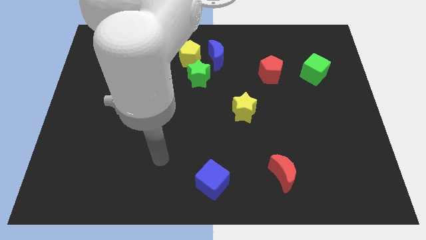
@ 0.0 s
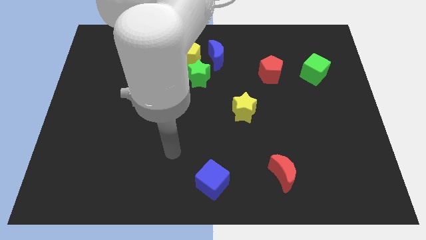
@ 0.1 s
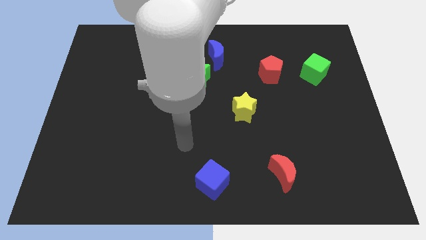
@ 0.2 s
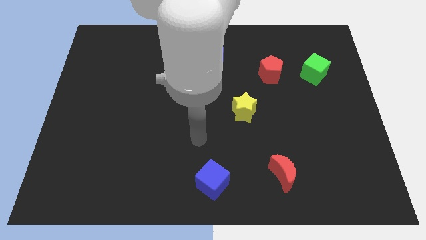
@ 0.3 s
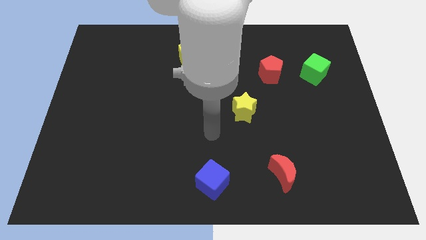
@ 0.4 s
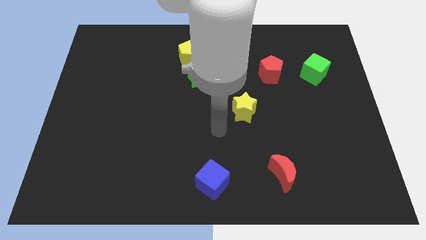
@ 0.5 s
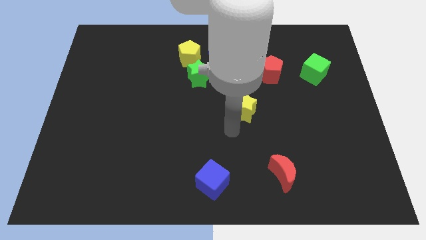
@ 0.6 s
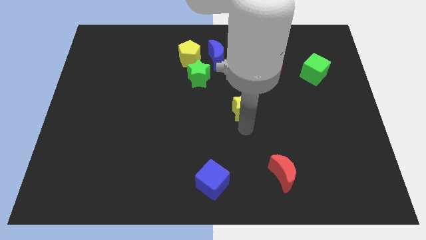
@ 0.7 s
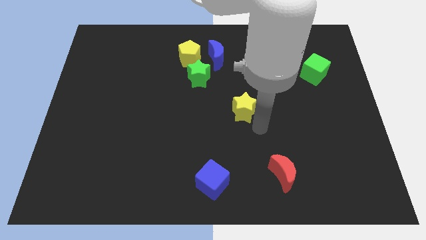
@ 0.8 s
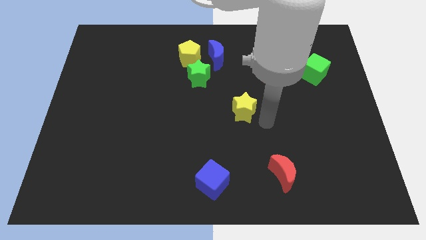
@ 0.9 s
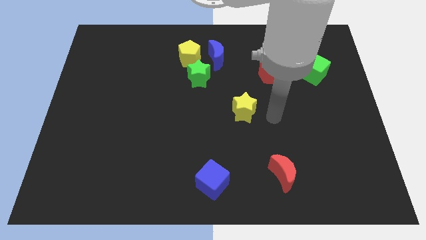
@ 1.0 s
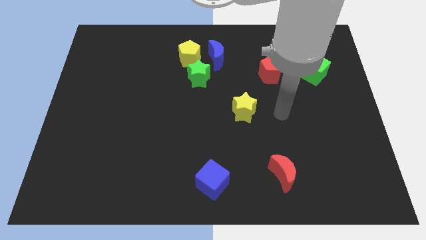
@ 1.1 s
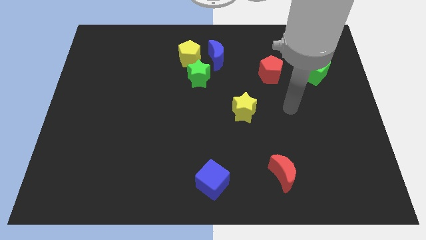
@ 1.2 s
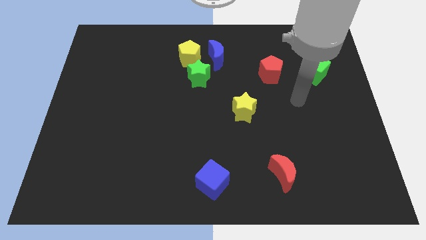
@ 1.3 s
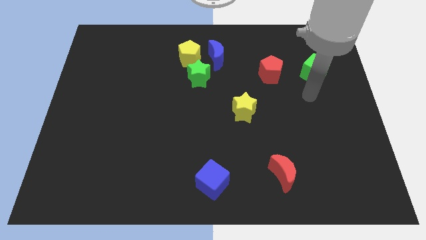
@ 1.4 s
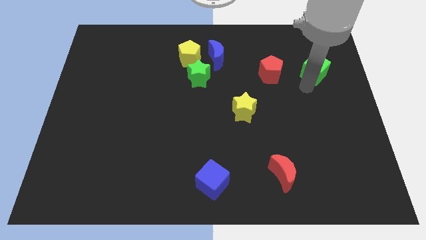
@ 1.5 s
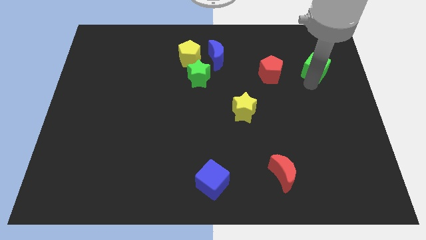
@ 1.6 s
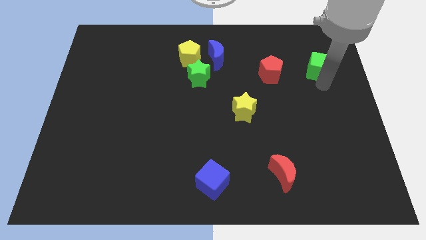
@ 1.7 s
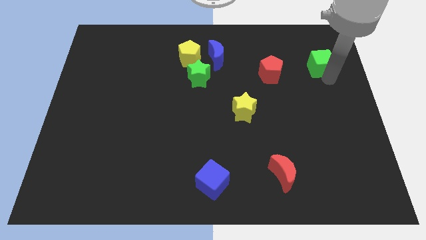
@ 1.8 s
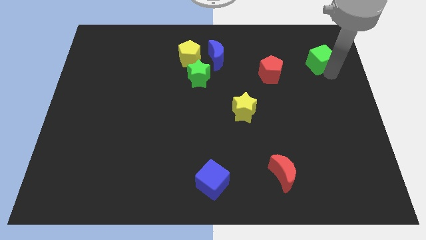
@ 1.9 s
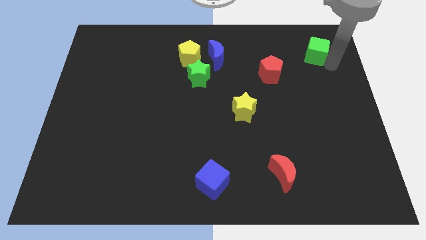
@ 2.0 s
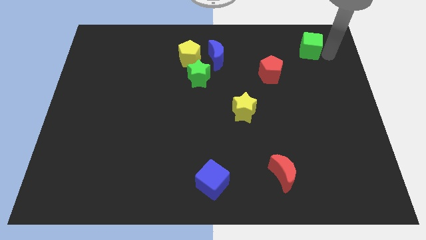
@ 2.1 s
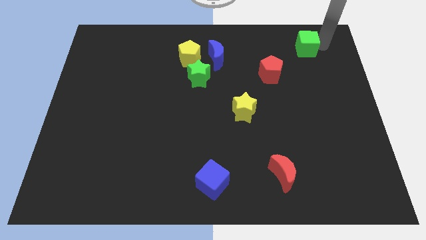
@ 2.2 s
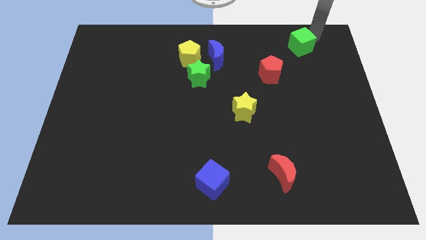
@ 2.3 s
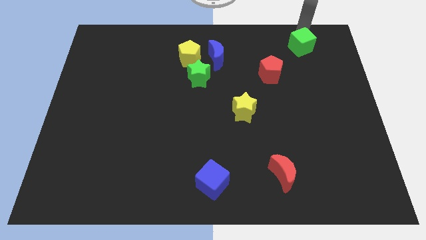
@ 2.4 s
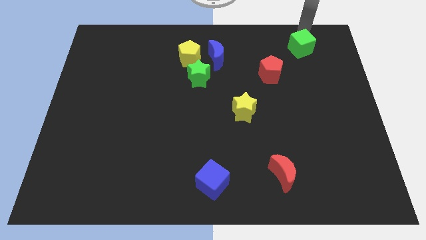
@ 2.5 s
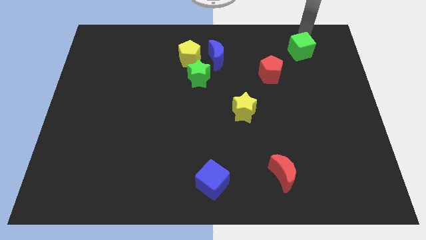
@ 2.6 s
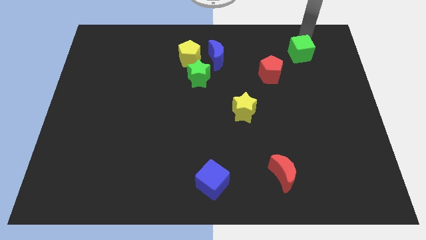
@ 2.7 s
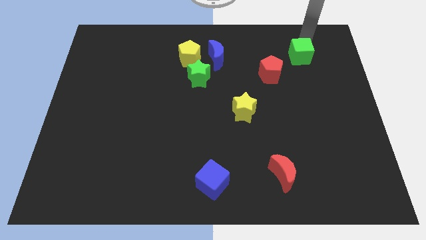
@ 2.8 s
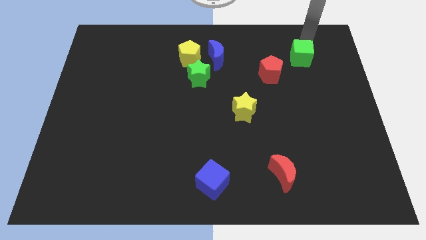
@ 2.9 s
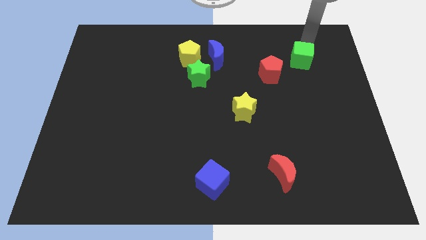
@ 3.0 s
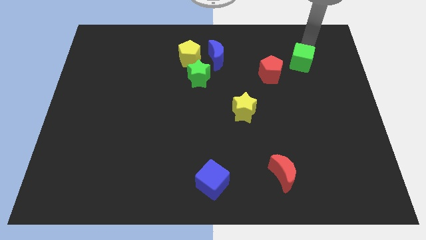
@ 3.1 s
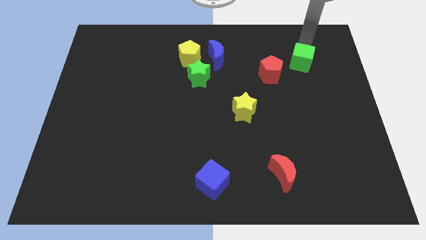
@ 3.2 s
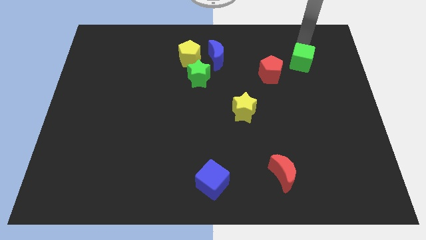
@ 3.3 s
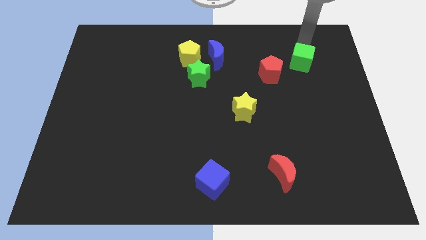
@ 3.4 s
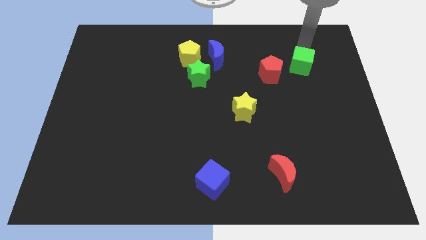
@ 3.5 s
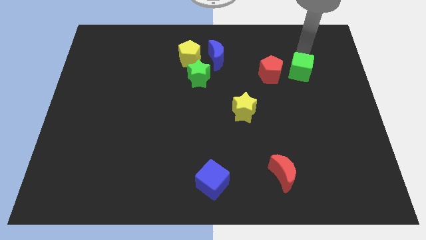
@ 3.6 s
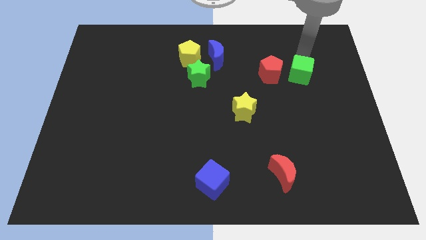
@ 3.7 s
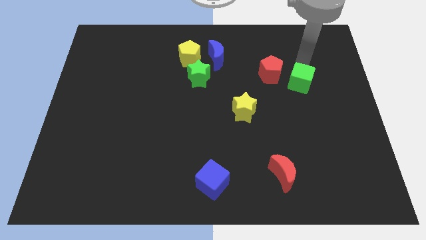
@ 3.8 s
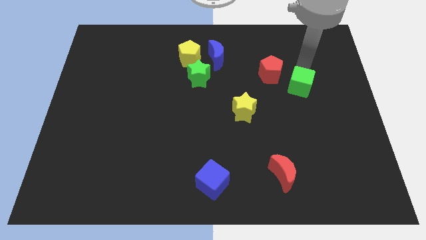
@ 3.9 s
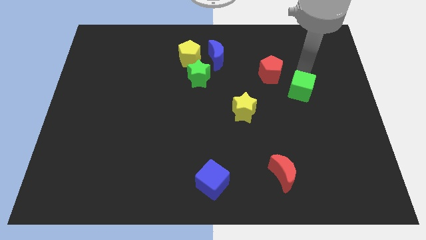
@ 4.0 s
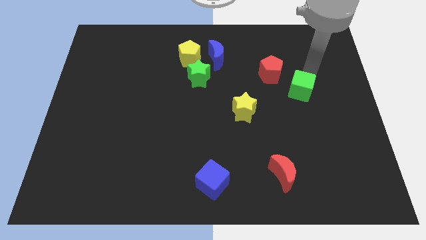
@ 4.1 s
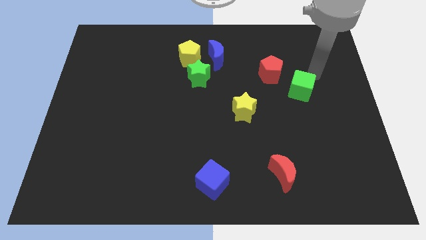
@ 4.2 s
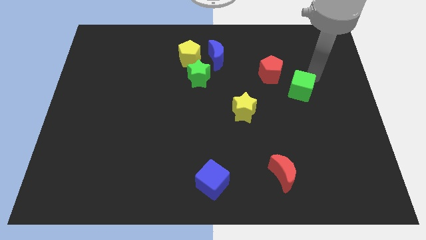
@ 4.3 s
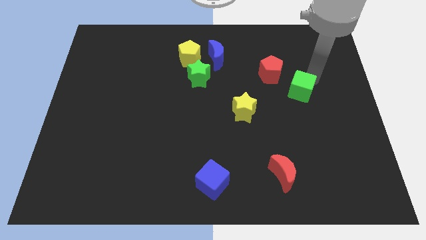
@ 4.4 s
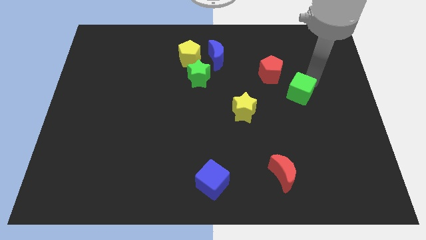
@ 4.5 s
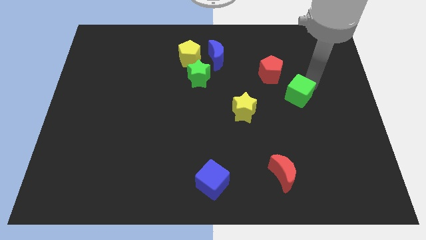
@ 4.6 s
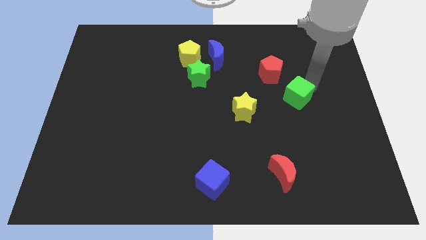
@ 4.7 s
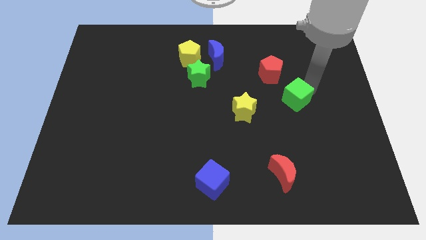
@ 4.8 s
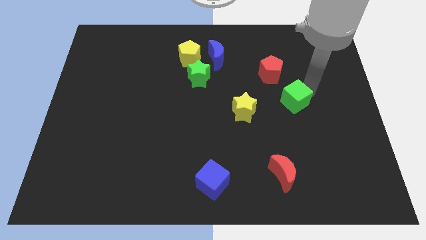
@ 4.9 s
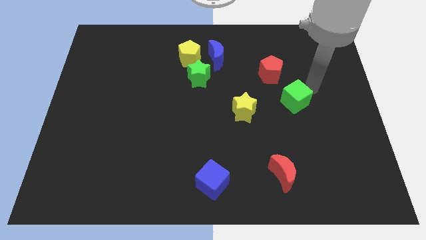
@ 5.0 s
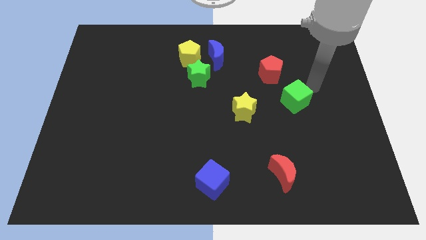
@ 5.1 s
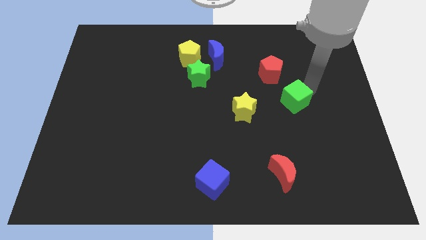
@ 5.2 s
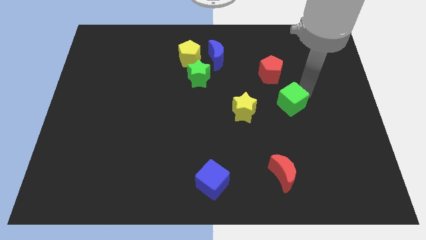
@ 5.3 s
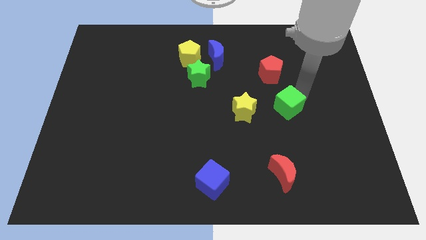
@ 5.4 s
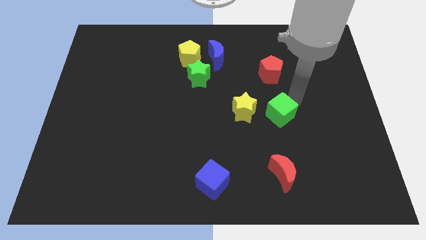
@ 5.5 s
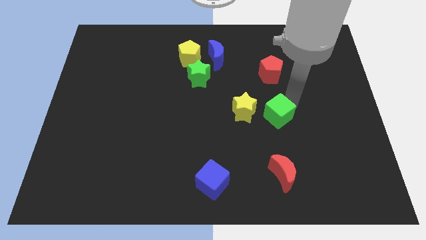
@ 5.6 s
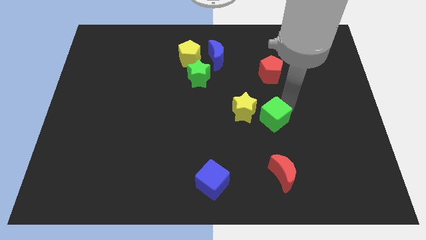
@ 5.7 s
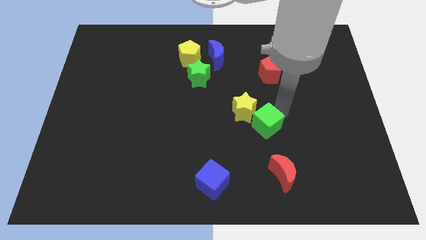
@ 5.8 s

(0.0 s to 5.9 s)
slide the green cube down and left

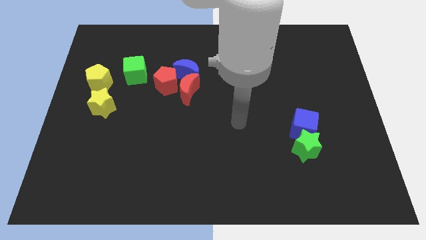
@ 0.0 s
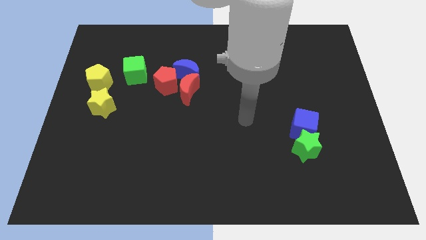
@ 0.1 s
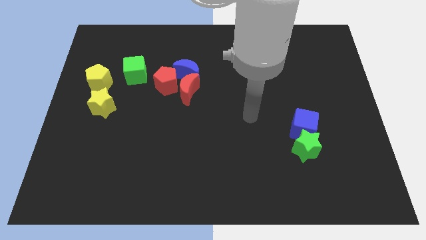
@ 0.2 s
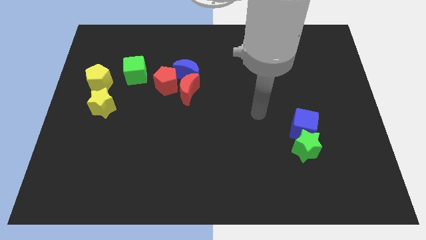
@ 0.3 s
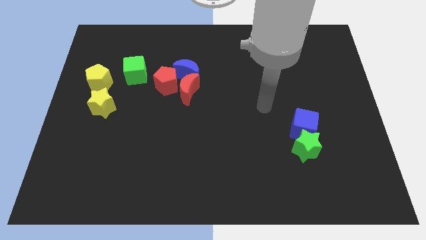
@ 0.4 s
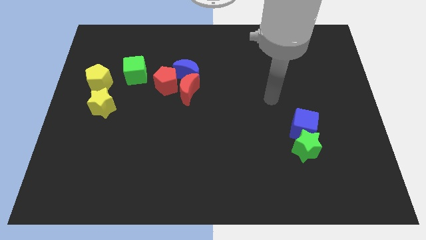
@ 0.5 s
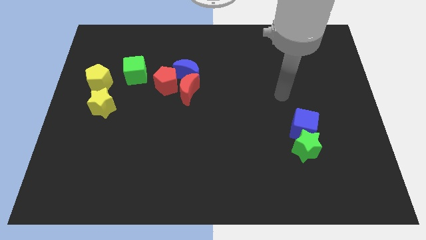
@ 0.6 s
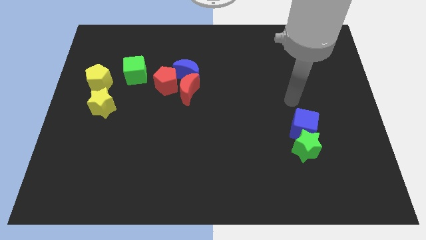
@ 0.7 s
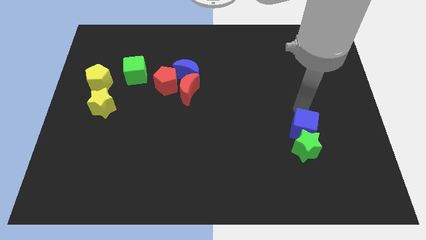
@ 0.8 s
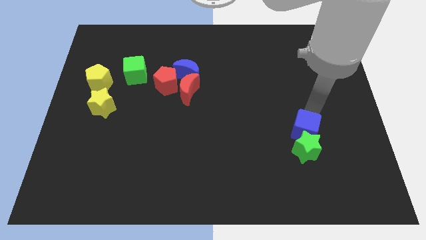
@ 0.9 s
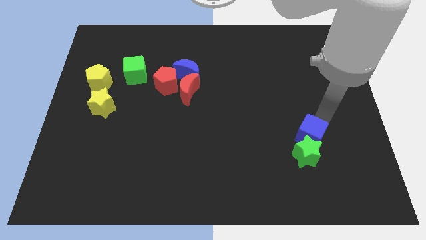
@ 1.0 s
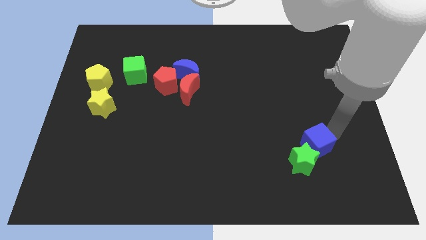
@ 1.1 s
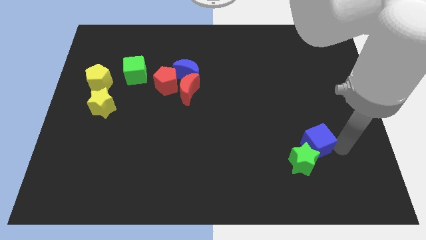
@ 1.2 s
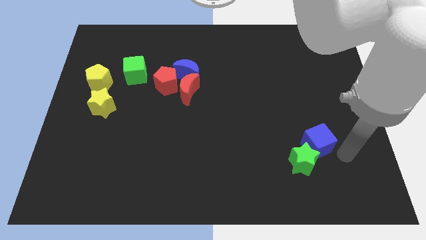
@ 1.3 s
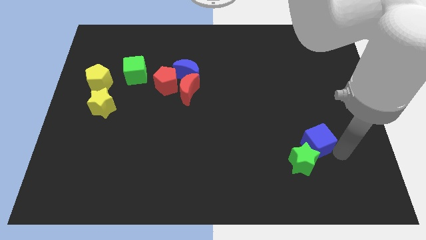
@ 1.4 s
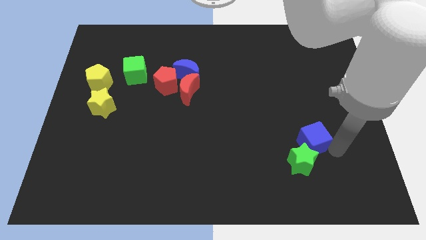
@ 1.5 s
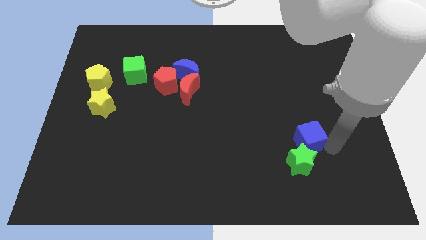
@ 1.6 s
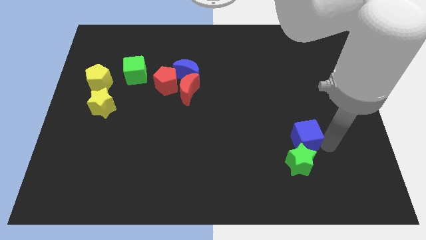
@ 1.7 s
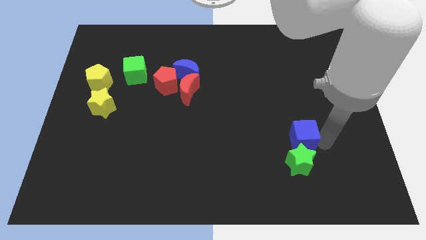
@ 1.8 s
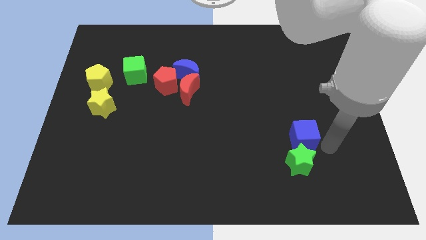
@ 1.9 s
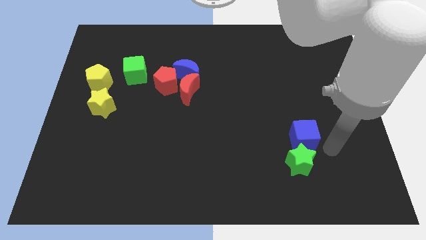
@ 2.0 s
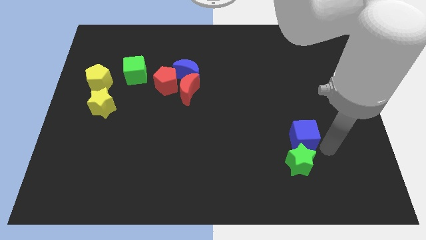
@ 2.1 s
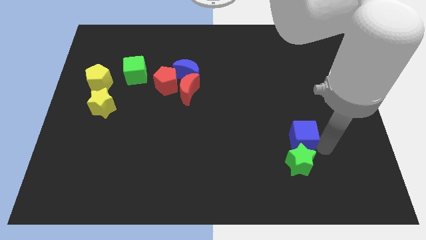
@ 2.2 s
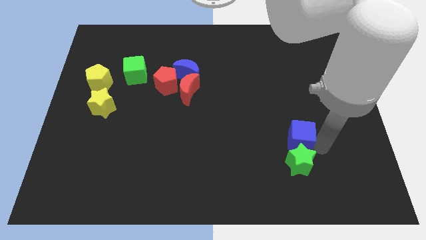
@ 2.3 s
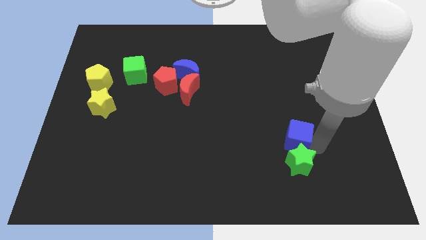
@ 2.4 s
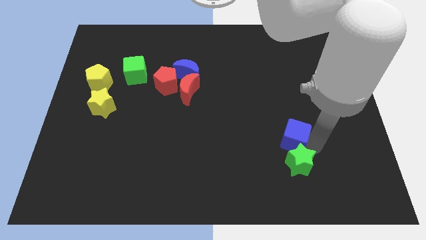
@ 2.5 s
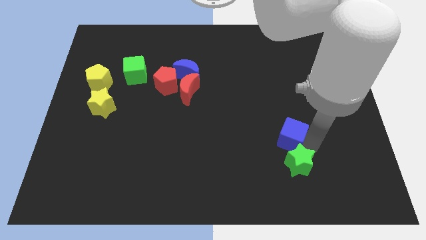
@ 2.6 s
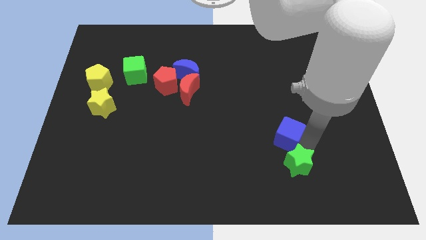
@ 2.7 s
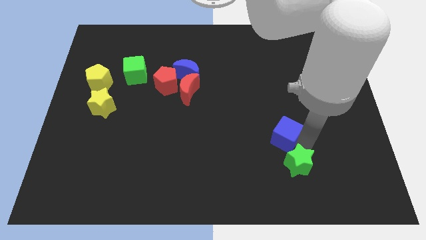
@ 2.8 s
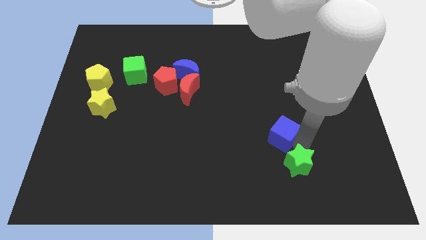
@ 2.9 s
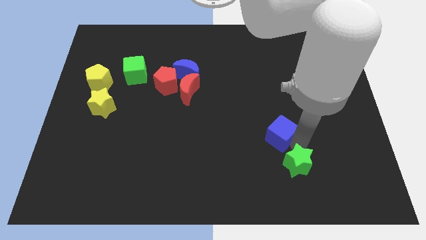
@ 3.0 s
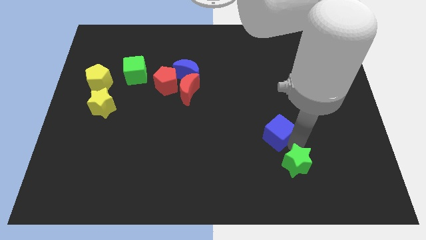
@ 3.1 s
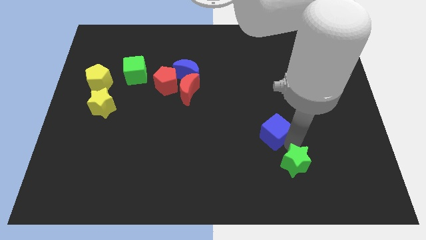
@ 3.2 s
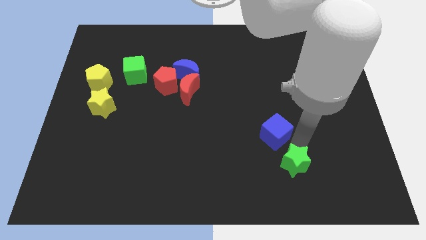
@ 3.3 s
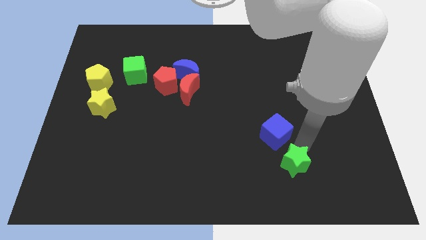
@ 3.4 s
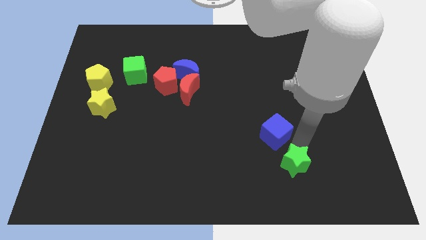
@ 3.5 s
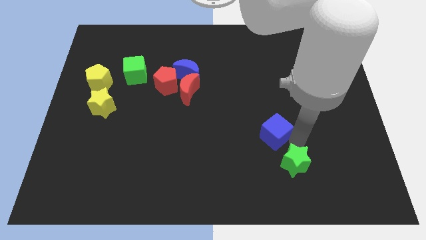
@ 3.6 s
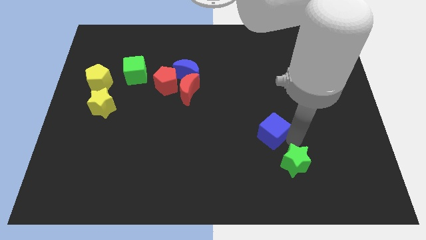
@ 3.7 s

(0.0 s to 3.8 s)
slightly push the blue cube left
